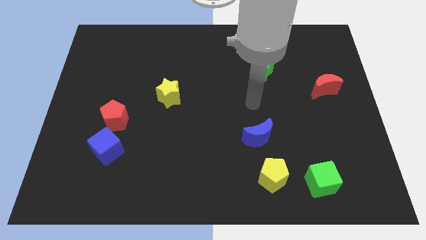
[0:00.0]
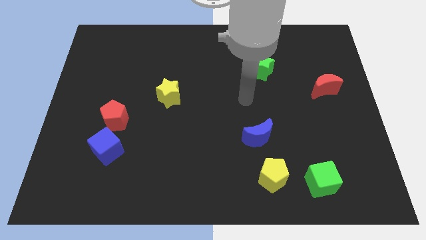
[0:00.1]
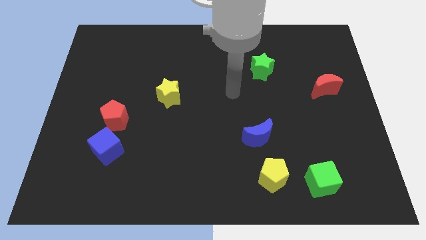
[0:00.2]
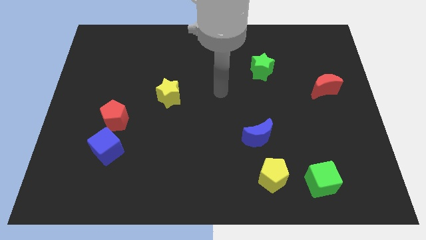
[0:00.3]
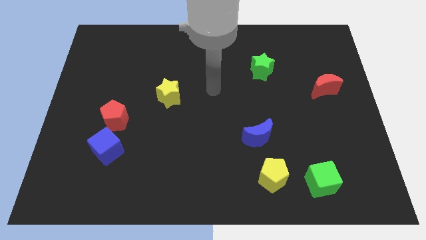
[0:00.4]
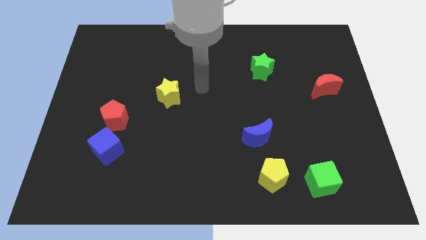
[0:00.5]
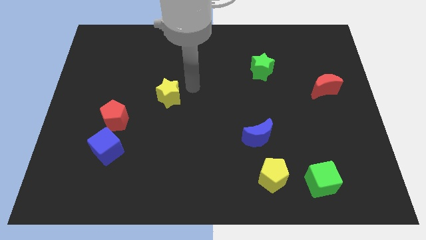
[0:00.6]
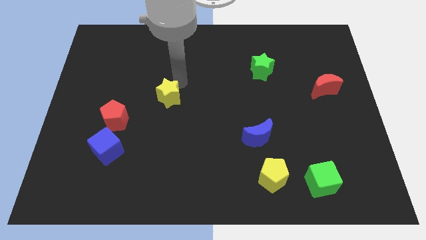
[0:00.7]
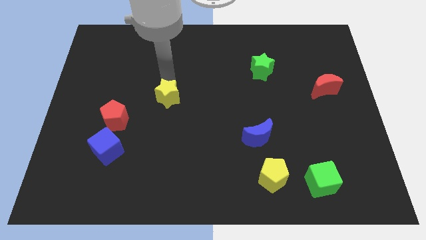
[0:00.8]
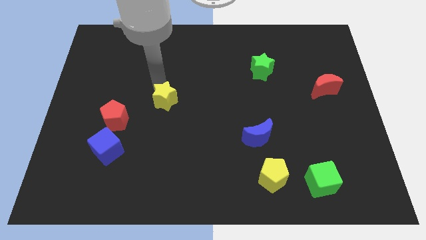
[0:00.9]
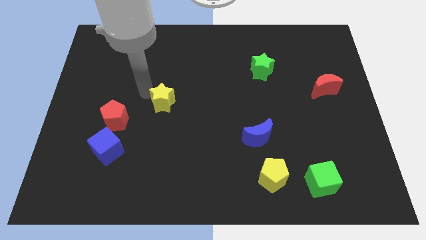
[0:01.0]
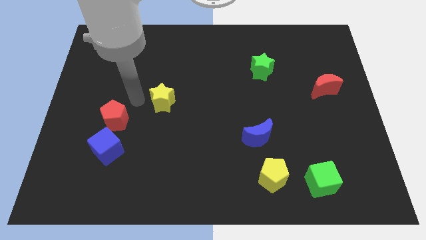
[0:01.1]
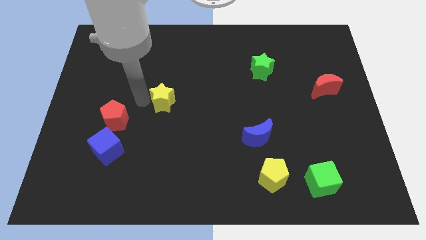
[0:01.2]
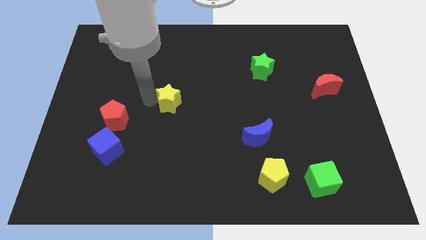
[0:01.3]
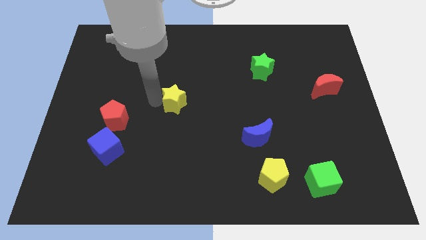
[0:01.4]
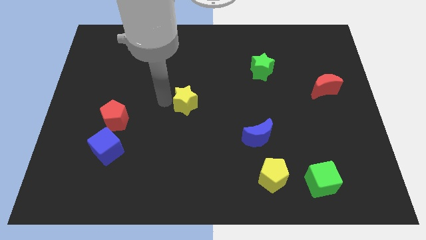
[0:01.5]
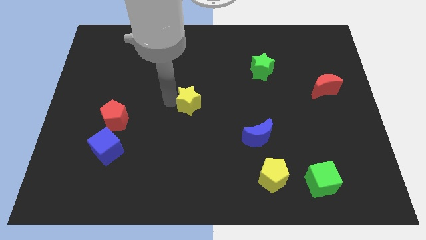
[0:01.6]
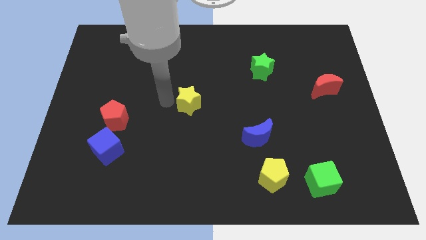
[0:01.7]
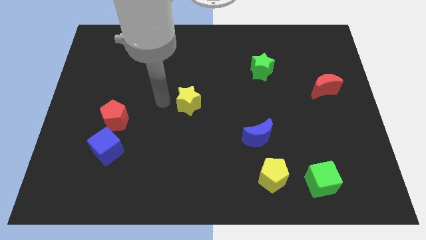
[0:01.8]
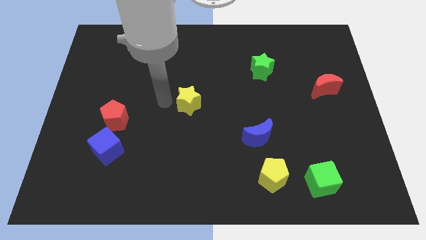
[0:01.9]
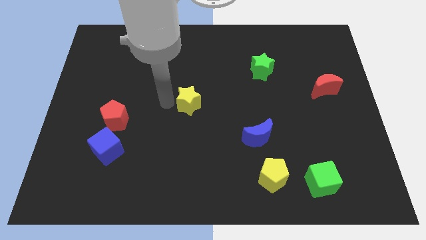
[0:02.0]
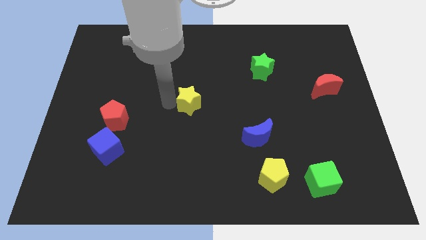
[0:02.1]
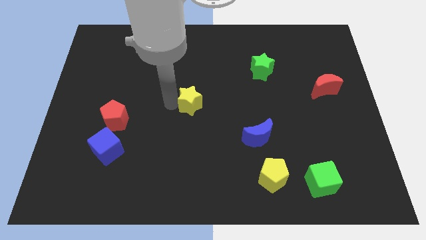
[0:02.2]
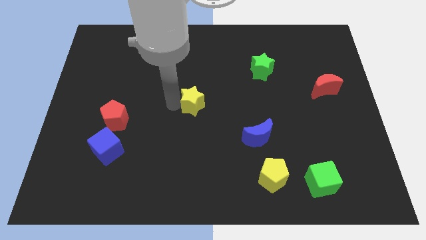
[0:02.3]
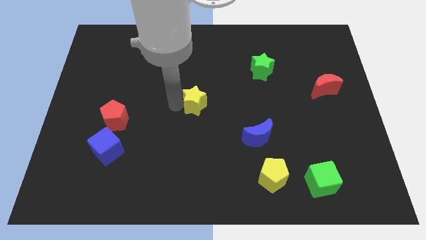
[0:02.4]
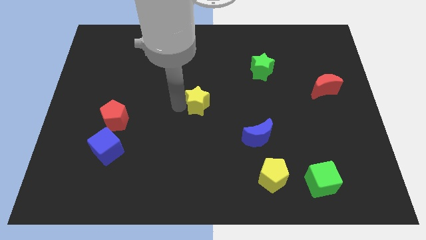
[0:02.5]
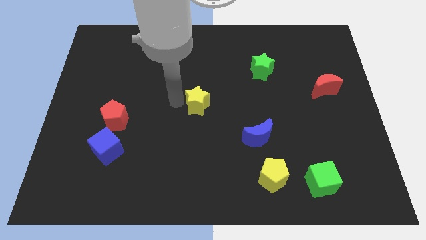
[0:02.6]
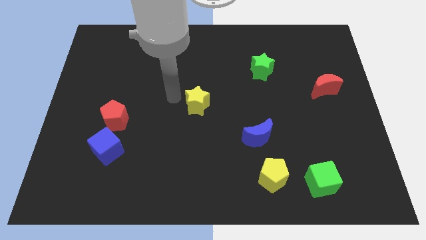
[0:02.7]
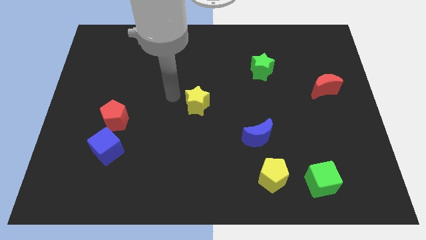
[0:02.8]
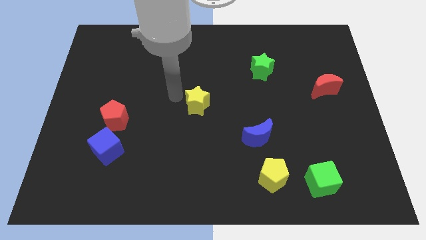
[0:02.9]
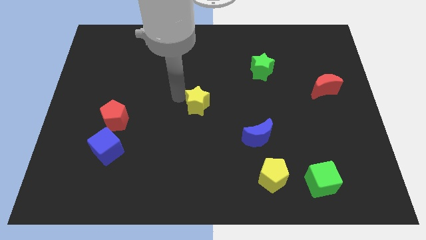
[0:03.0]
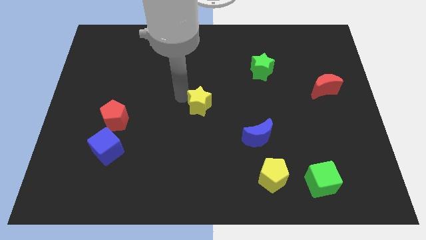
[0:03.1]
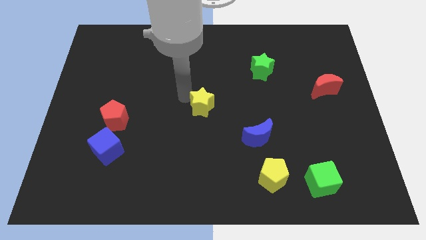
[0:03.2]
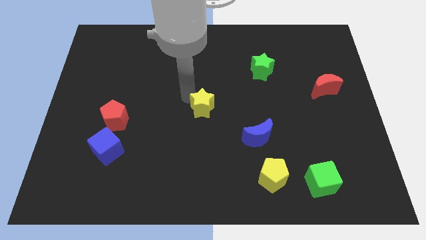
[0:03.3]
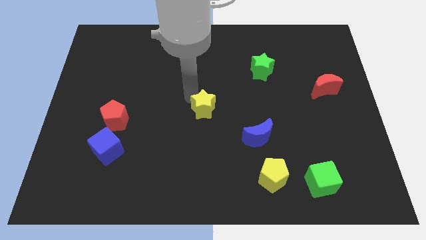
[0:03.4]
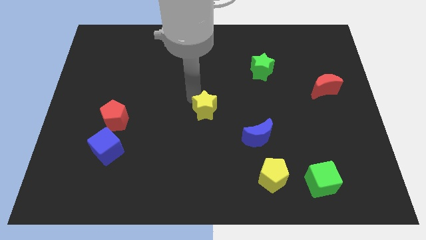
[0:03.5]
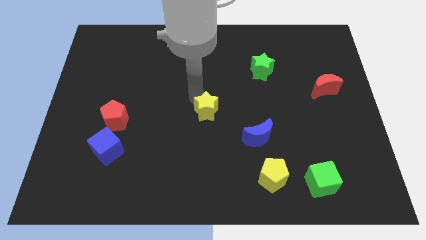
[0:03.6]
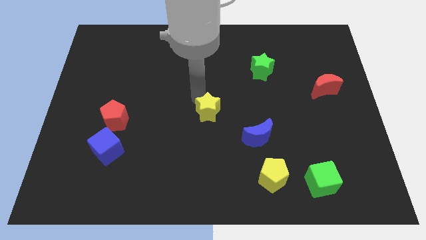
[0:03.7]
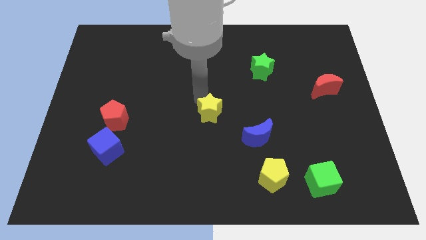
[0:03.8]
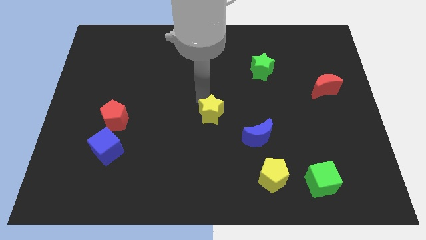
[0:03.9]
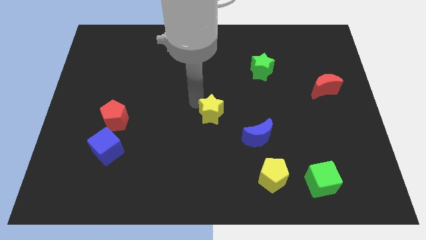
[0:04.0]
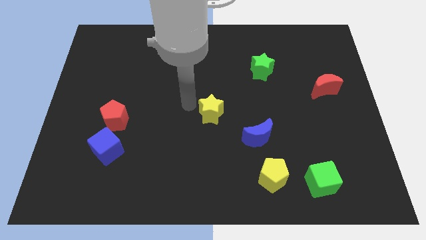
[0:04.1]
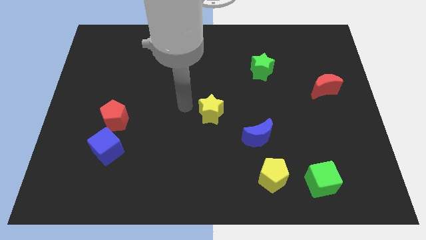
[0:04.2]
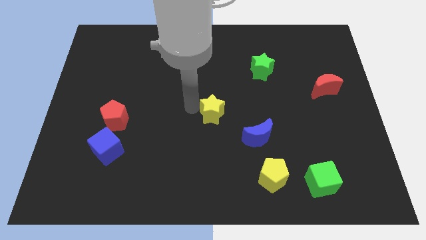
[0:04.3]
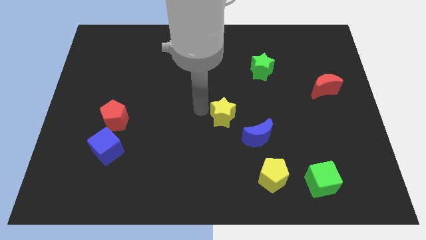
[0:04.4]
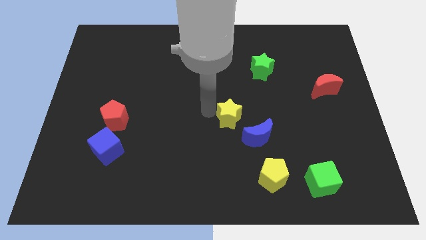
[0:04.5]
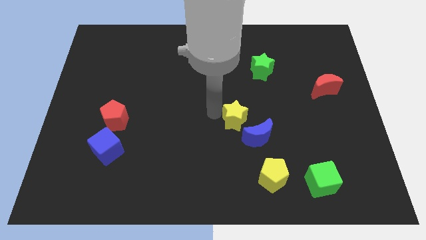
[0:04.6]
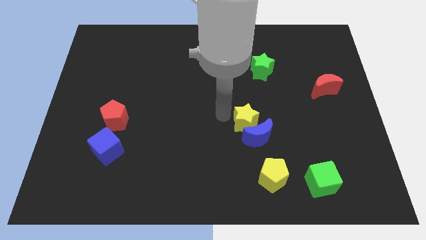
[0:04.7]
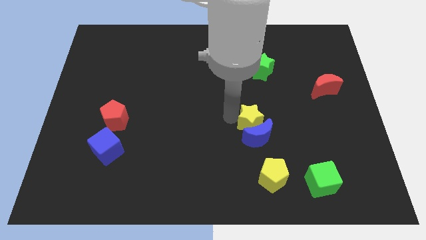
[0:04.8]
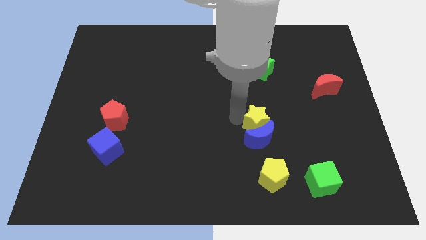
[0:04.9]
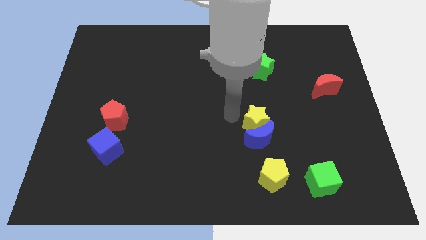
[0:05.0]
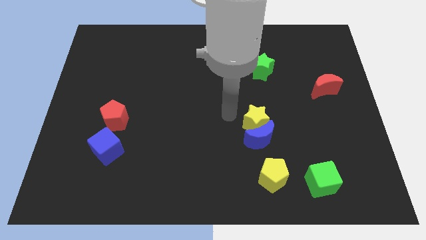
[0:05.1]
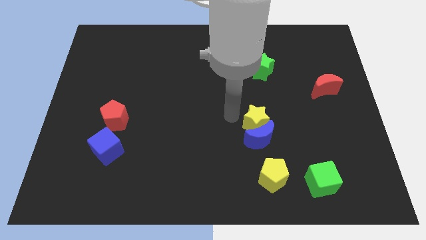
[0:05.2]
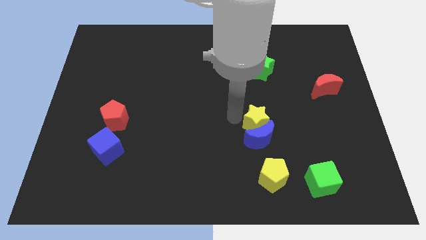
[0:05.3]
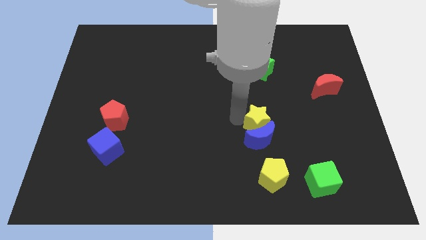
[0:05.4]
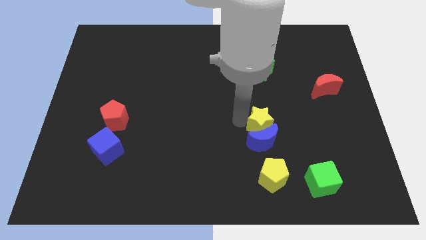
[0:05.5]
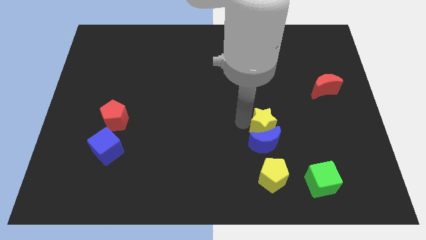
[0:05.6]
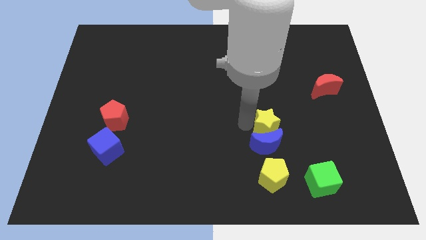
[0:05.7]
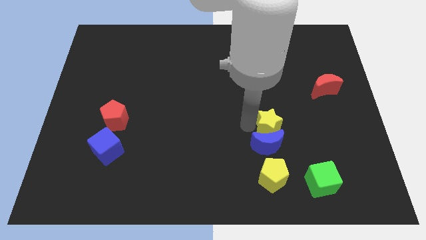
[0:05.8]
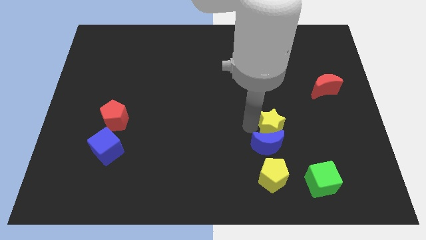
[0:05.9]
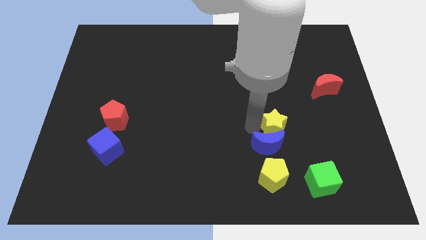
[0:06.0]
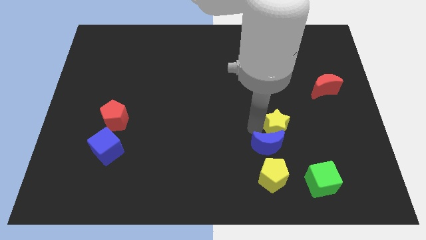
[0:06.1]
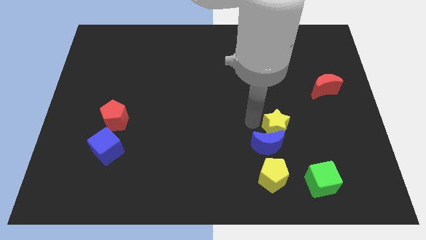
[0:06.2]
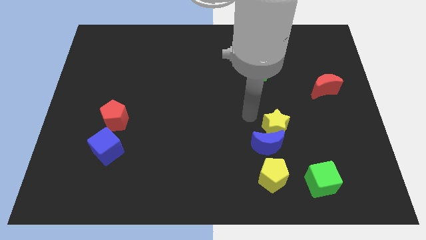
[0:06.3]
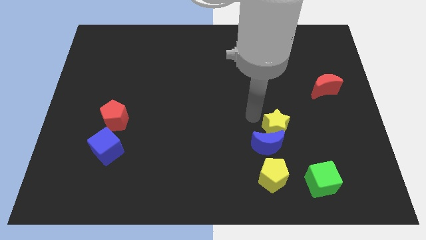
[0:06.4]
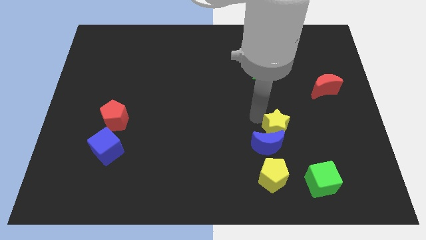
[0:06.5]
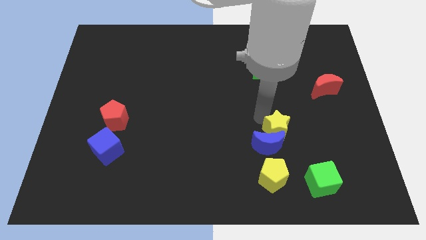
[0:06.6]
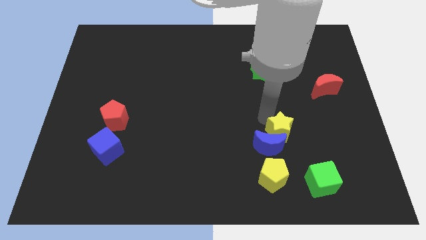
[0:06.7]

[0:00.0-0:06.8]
push the yellow star to the right side of the blue moon
